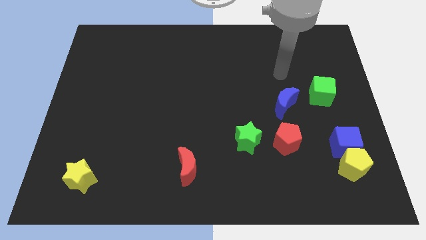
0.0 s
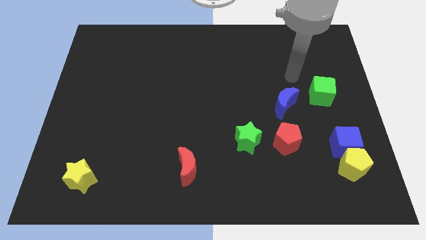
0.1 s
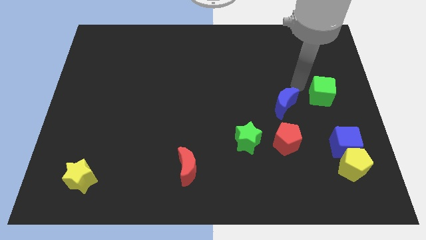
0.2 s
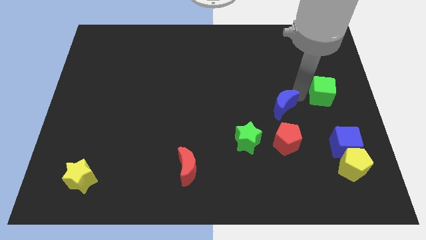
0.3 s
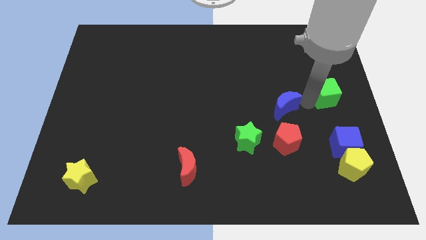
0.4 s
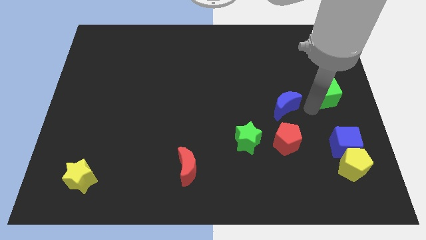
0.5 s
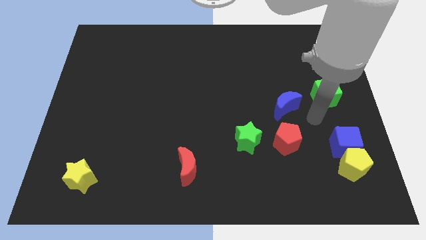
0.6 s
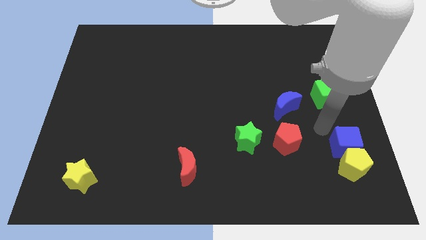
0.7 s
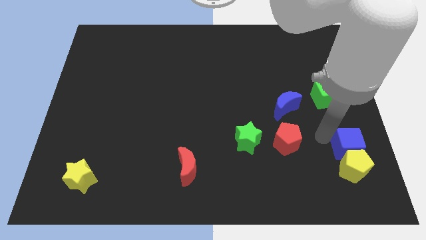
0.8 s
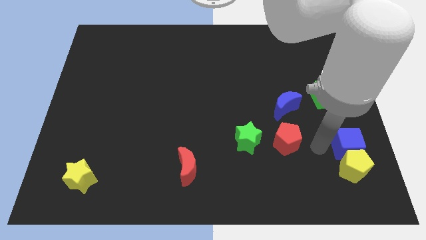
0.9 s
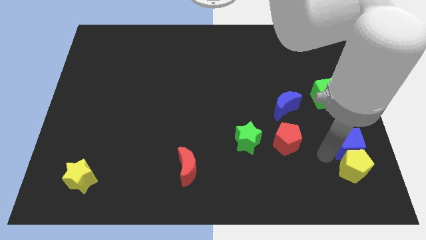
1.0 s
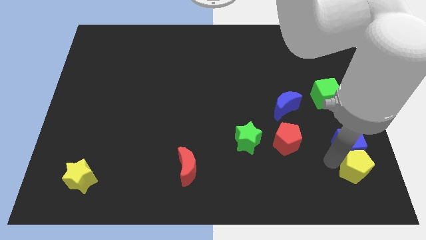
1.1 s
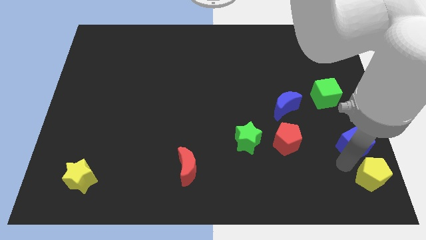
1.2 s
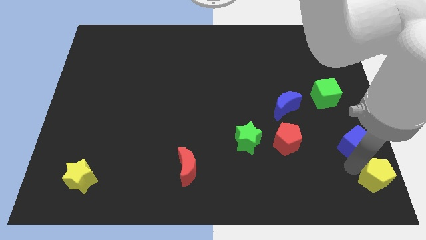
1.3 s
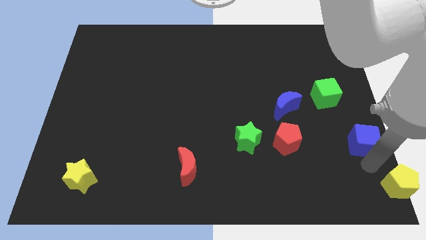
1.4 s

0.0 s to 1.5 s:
separate the blue cube from the yellow pentagon

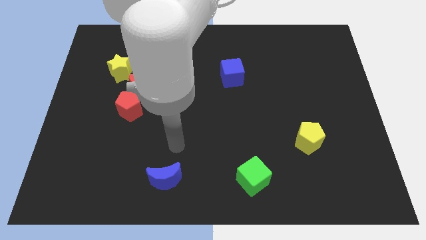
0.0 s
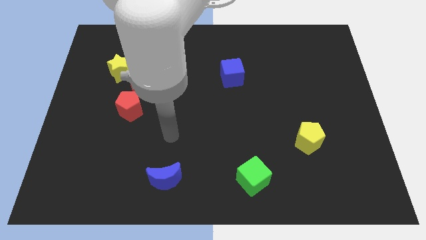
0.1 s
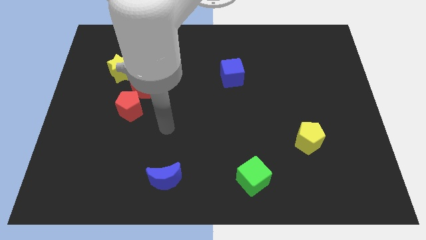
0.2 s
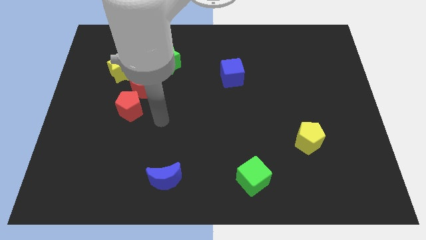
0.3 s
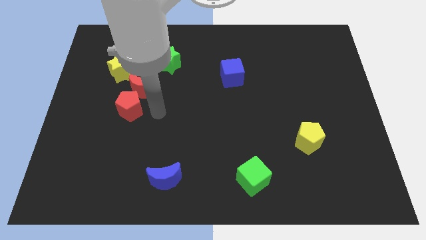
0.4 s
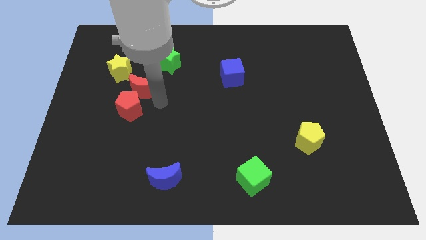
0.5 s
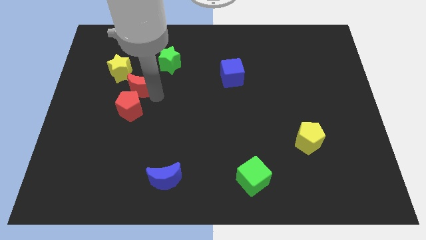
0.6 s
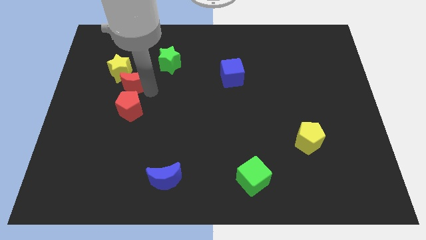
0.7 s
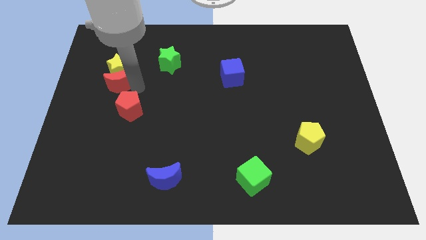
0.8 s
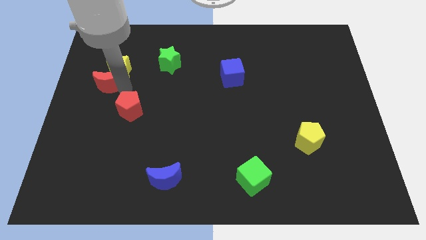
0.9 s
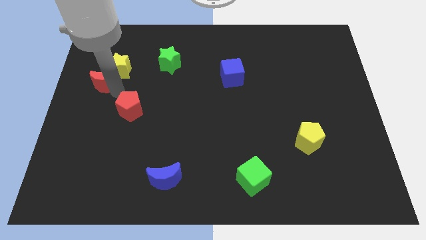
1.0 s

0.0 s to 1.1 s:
move the red pentagon away from the red moon

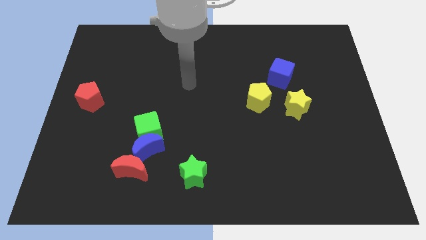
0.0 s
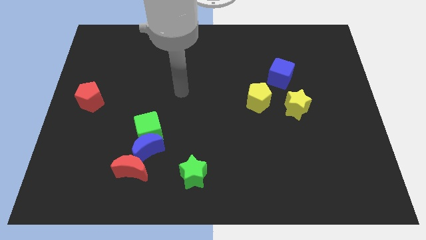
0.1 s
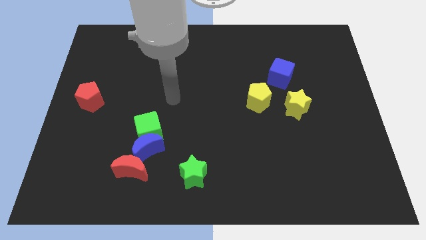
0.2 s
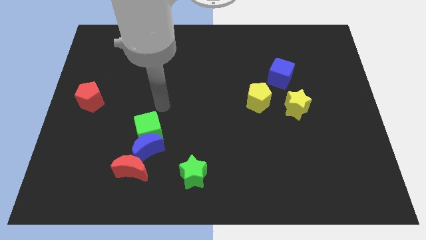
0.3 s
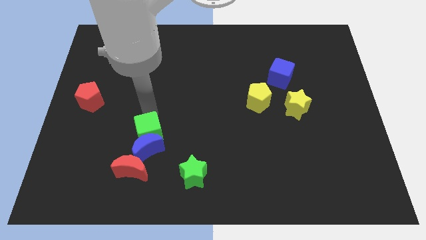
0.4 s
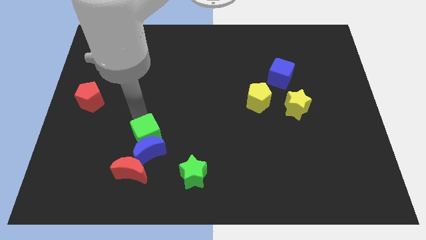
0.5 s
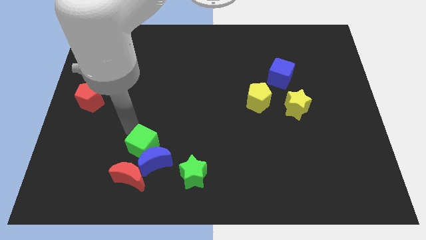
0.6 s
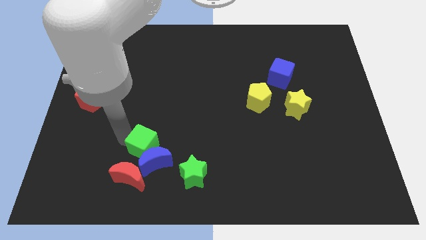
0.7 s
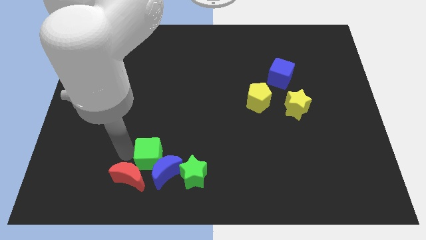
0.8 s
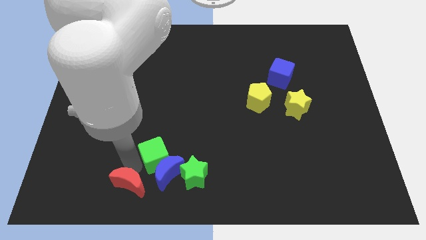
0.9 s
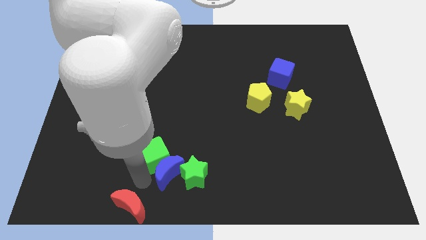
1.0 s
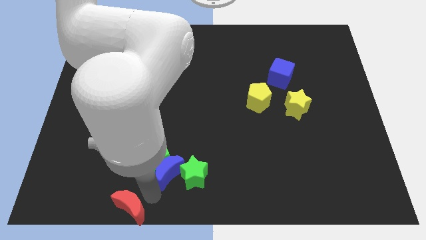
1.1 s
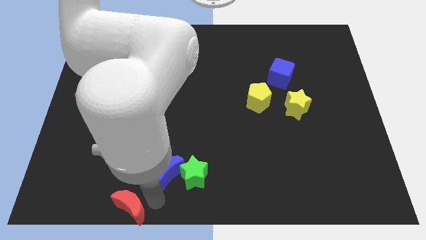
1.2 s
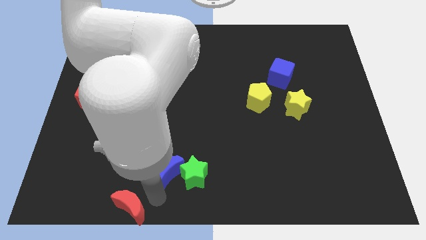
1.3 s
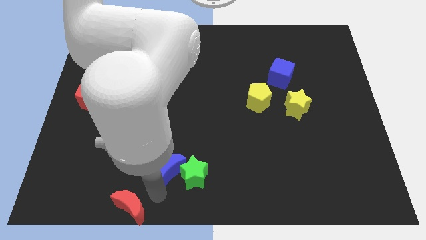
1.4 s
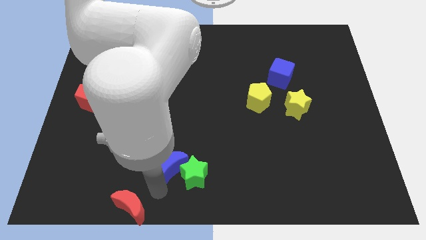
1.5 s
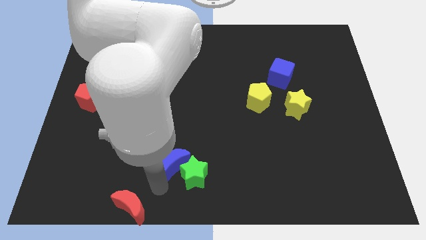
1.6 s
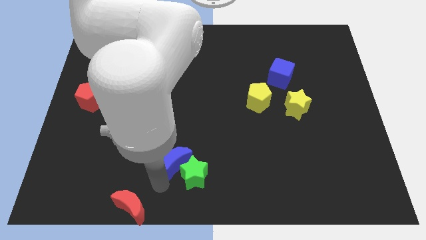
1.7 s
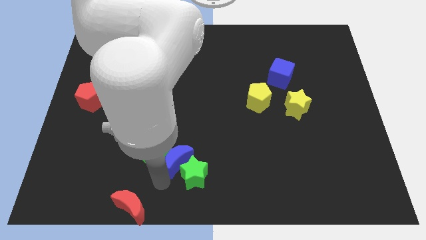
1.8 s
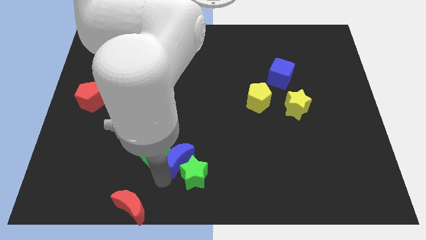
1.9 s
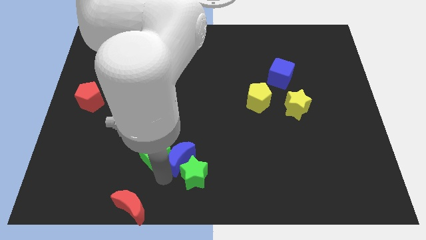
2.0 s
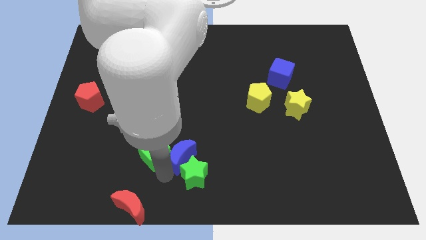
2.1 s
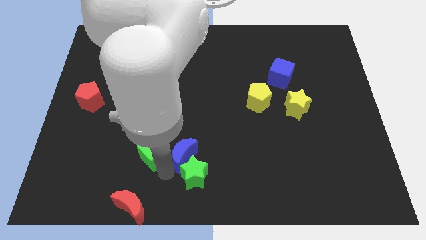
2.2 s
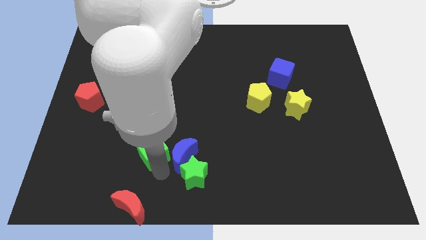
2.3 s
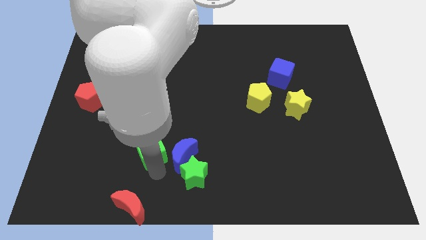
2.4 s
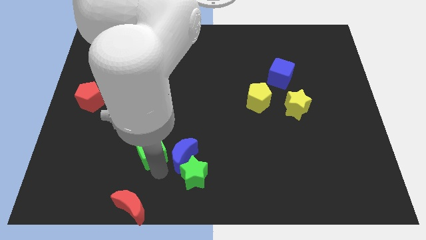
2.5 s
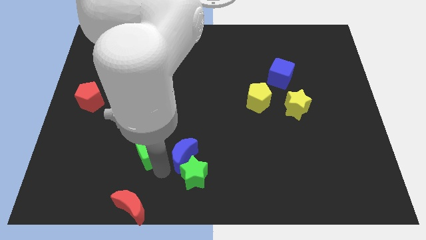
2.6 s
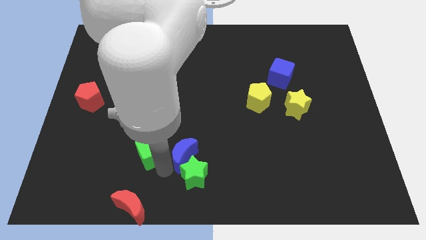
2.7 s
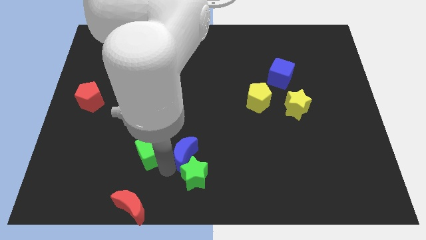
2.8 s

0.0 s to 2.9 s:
pull the blue moon apart from the green cube and red moon

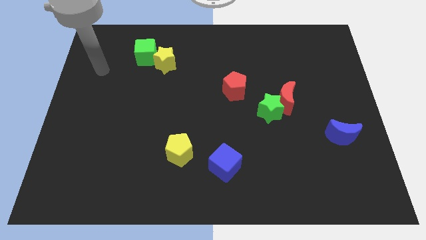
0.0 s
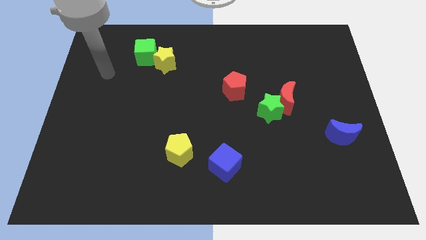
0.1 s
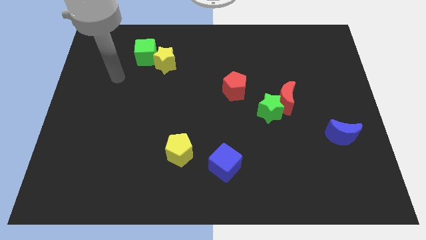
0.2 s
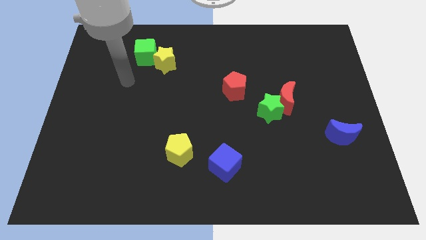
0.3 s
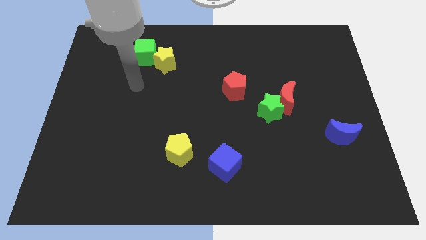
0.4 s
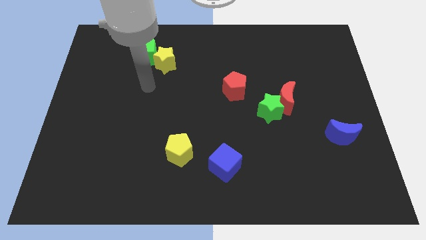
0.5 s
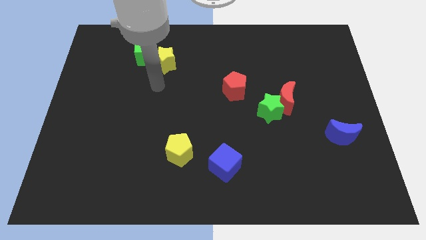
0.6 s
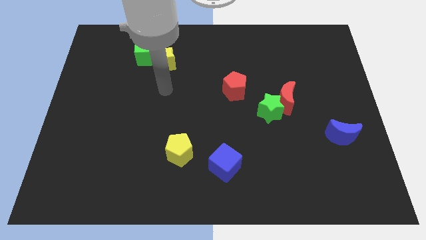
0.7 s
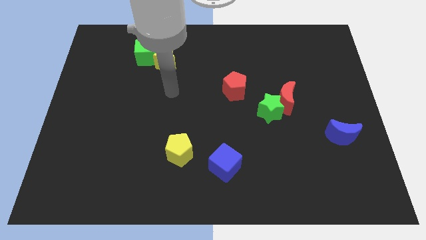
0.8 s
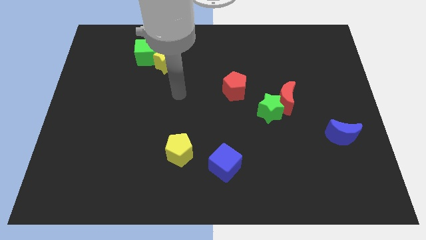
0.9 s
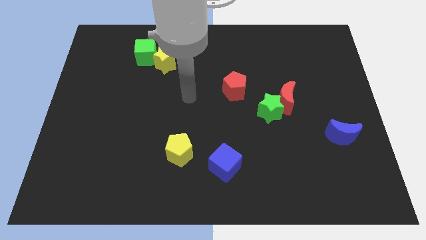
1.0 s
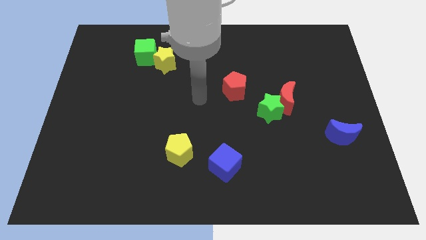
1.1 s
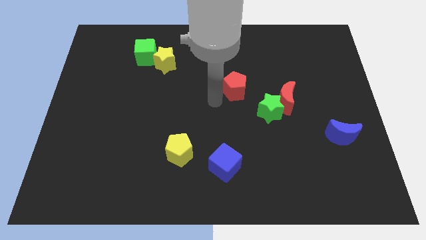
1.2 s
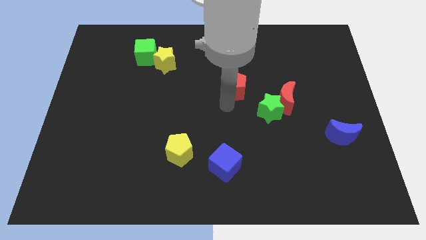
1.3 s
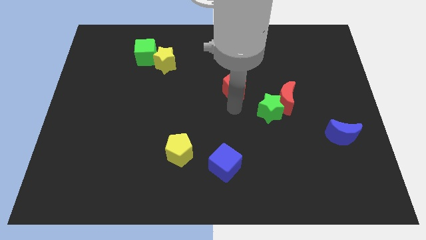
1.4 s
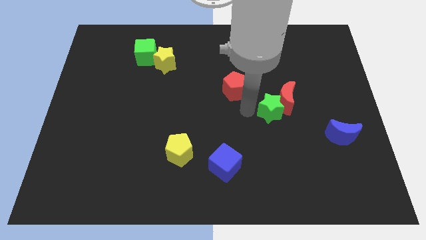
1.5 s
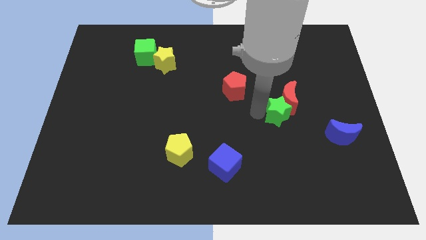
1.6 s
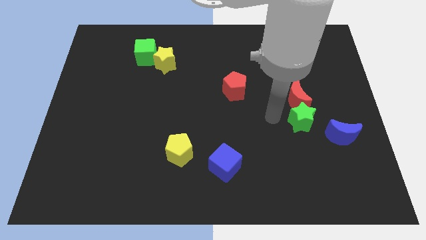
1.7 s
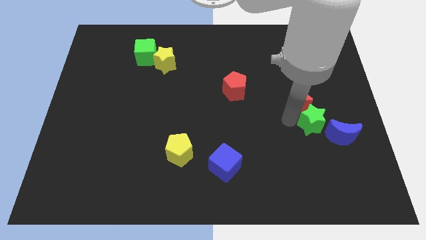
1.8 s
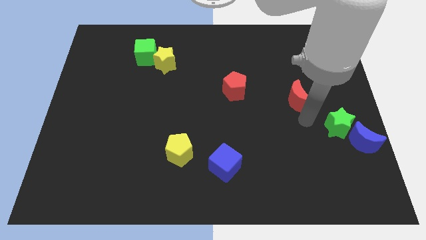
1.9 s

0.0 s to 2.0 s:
pull the red moon apart from the green star

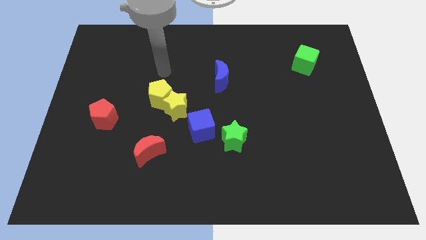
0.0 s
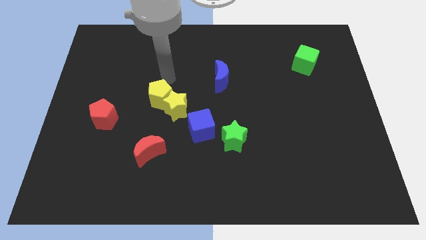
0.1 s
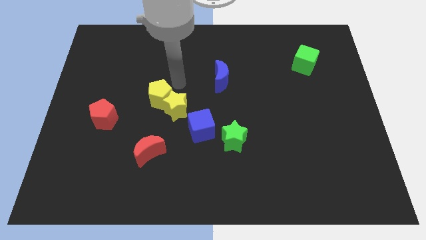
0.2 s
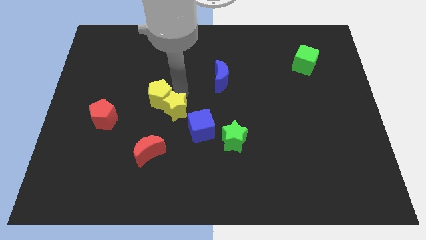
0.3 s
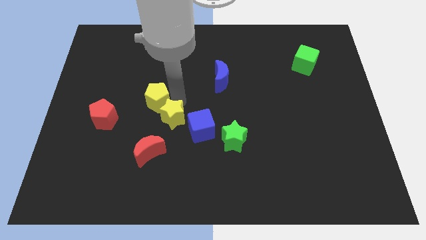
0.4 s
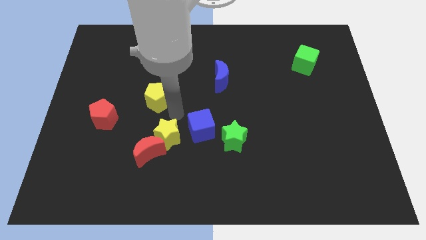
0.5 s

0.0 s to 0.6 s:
pull the yellow pentagon apart from the yellow star

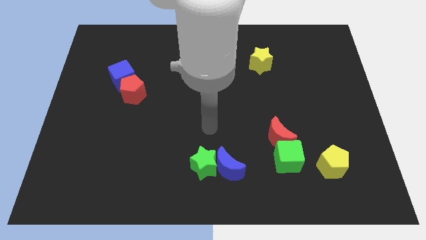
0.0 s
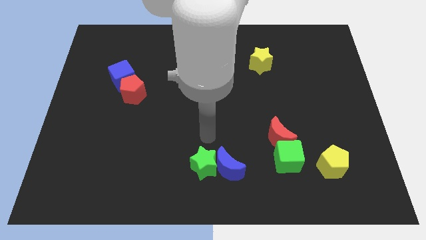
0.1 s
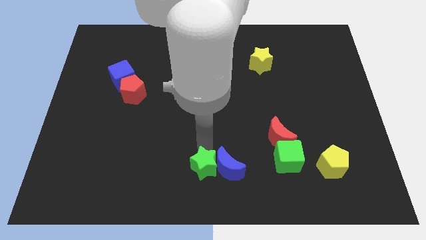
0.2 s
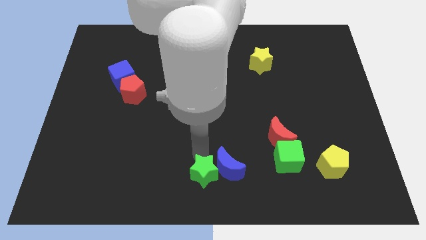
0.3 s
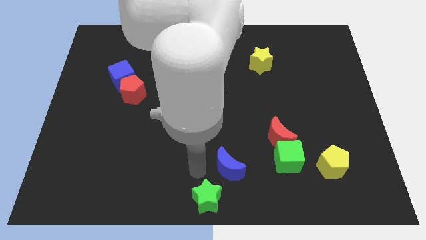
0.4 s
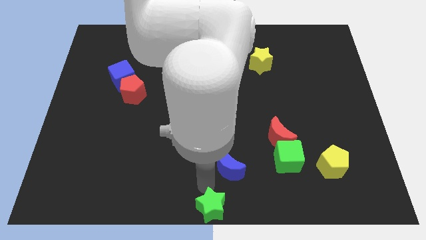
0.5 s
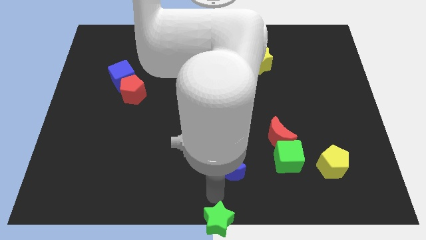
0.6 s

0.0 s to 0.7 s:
pull the blue moon apart from the green star

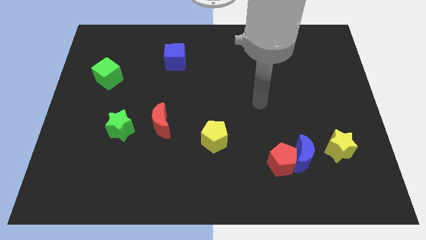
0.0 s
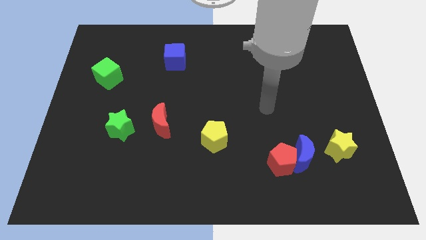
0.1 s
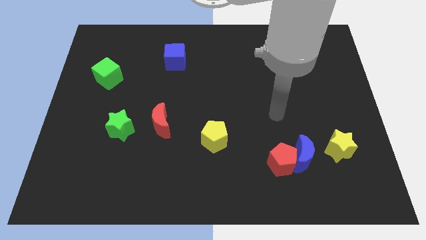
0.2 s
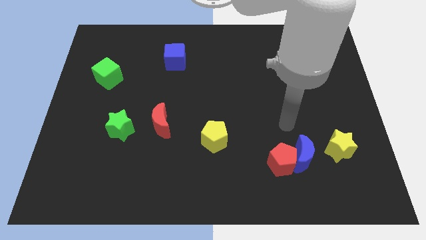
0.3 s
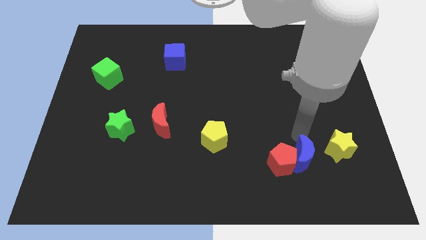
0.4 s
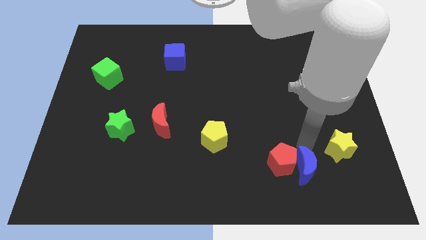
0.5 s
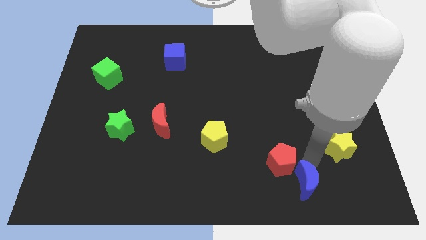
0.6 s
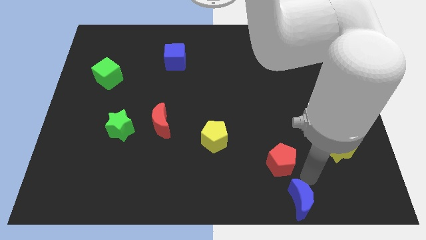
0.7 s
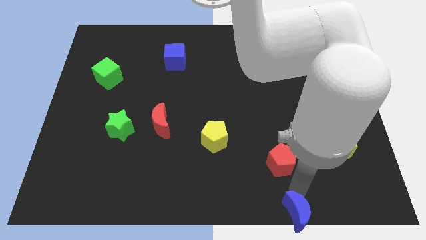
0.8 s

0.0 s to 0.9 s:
pull the red pentagon apart from the blue moon
